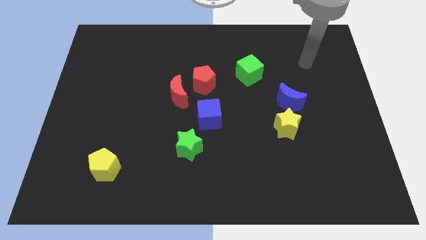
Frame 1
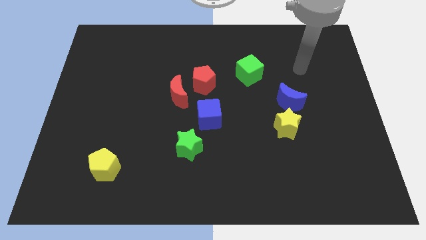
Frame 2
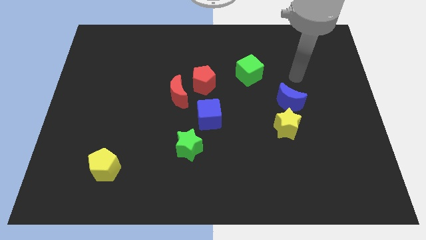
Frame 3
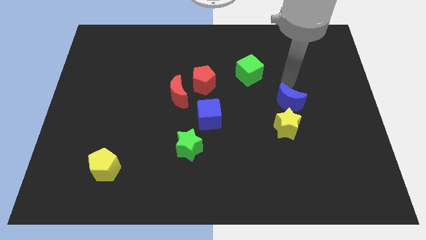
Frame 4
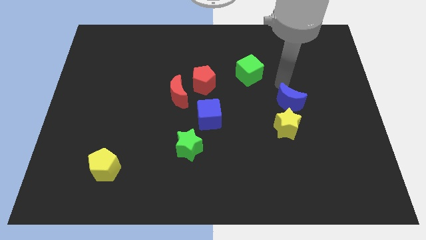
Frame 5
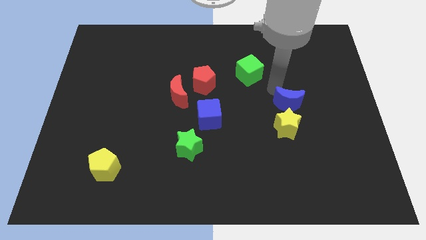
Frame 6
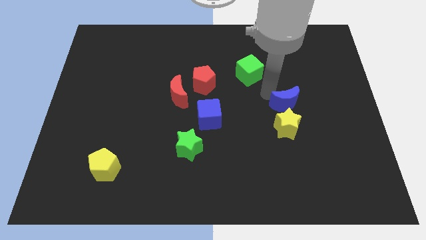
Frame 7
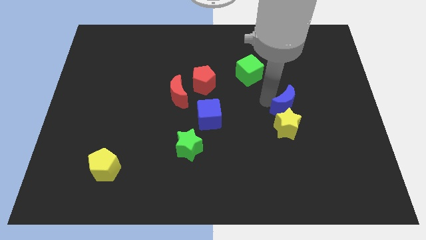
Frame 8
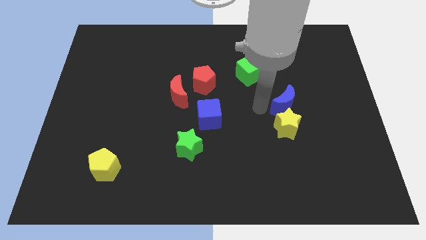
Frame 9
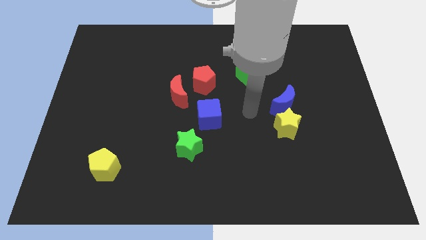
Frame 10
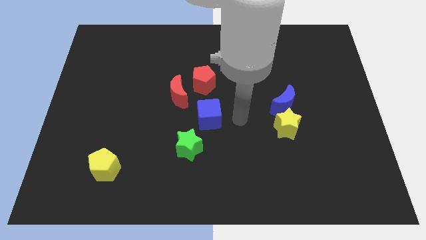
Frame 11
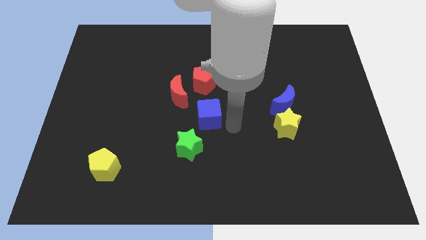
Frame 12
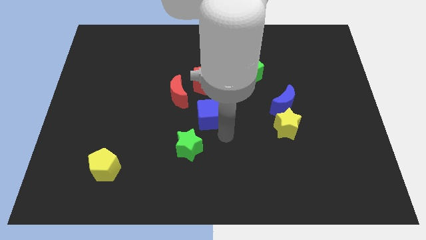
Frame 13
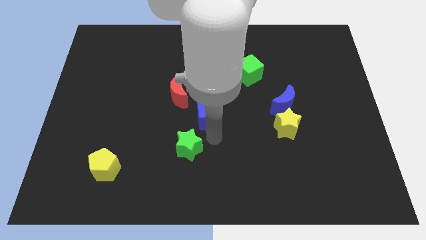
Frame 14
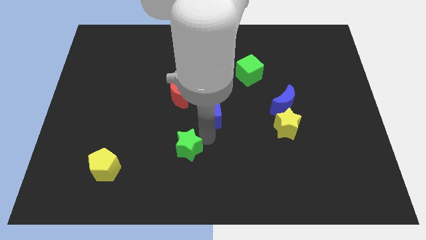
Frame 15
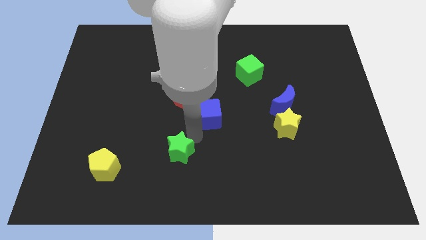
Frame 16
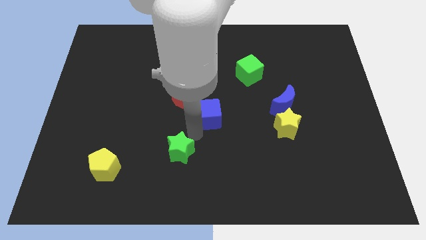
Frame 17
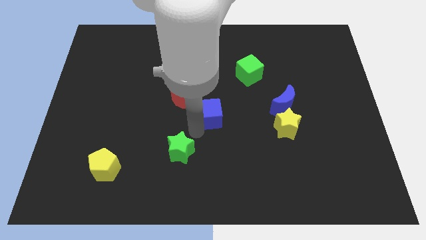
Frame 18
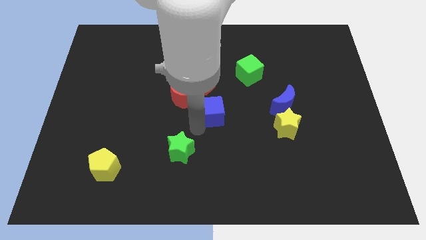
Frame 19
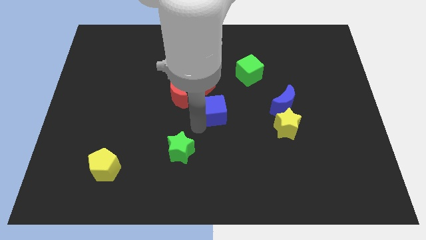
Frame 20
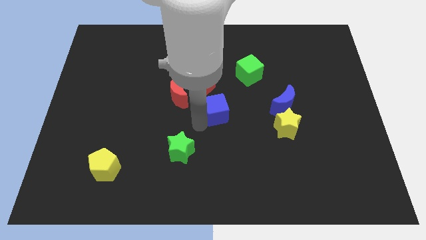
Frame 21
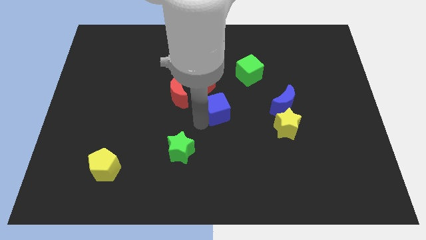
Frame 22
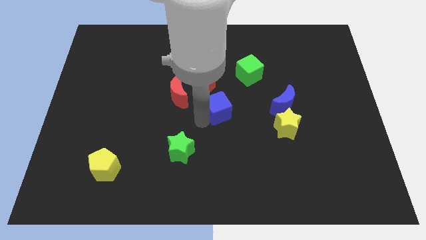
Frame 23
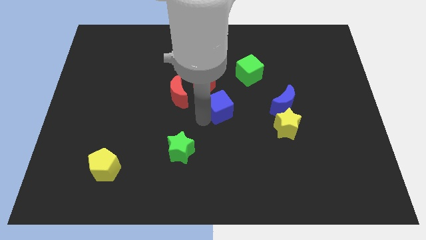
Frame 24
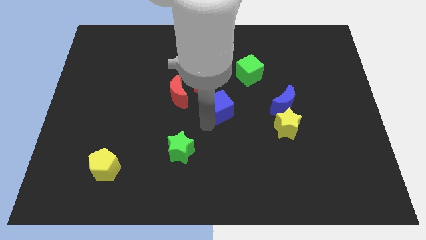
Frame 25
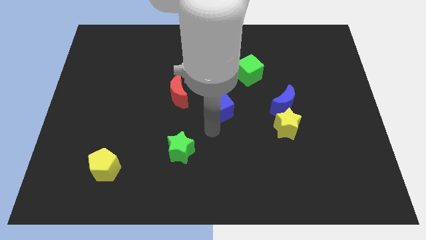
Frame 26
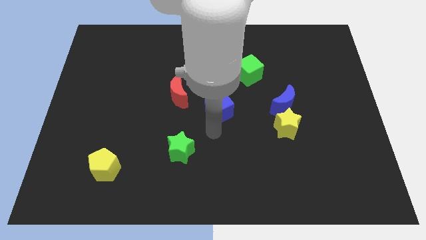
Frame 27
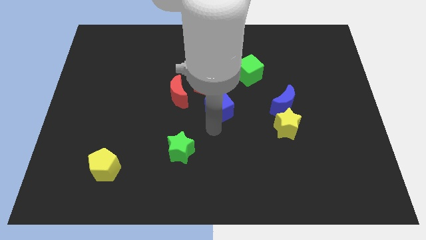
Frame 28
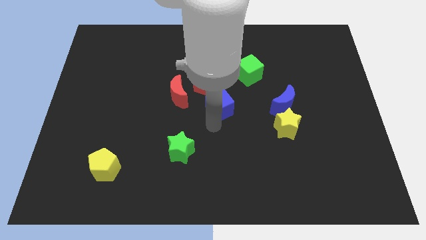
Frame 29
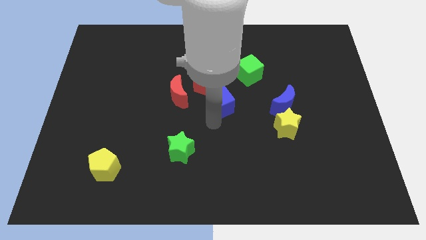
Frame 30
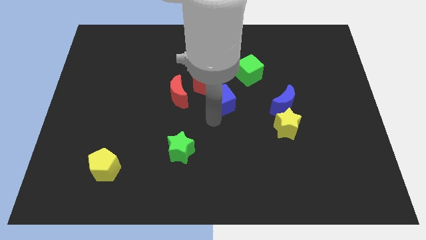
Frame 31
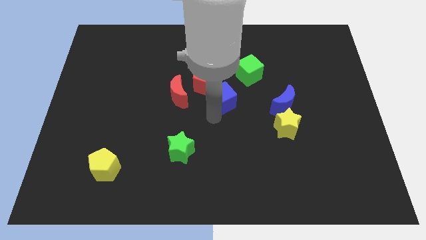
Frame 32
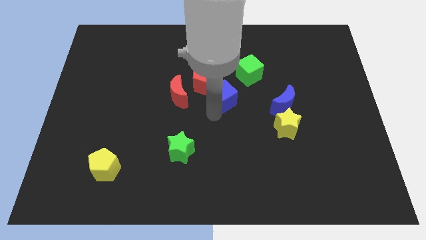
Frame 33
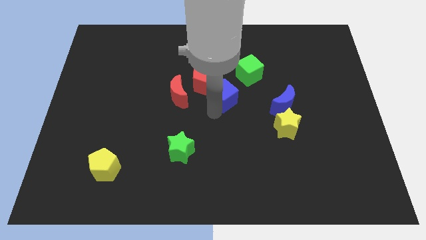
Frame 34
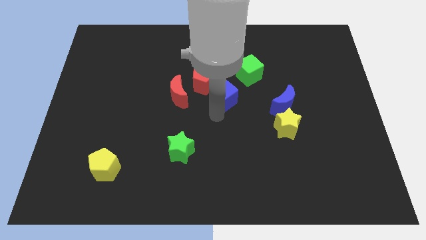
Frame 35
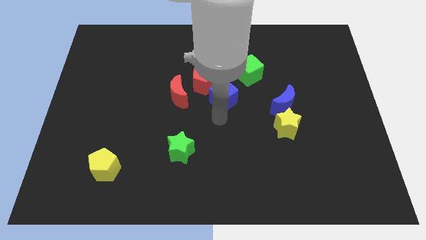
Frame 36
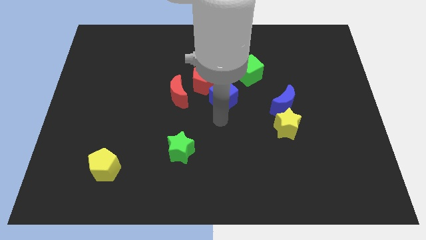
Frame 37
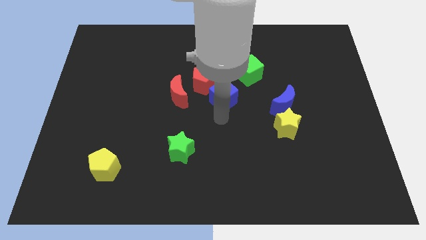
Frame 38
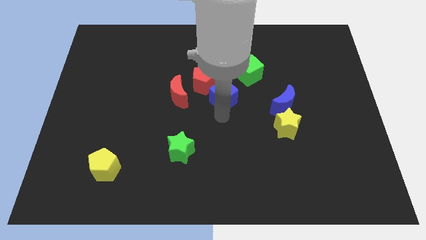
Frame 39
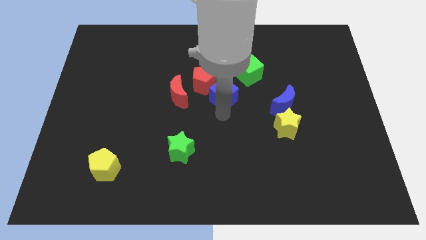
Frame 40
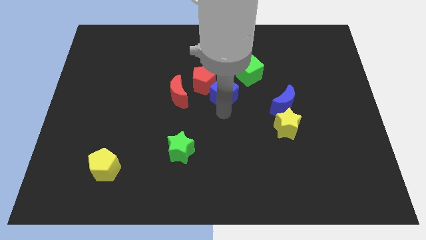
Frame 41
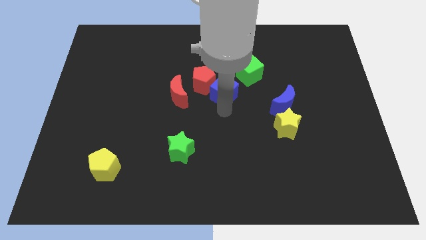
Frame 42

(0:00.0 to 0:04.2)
slide the blue cube upwards somewhat

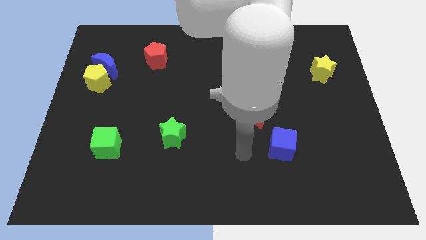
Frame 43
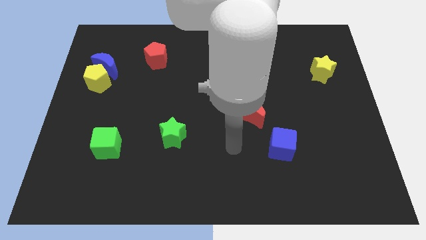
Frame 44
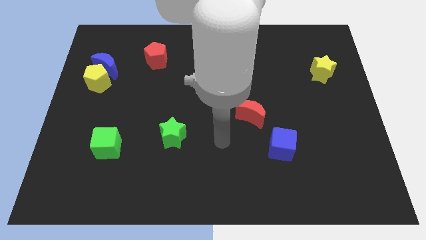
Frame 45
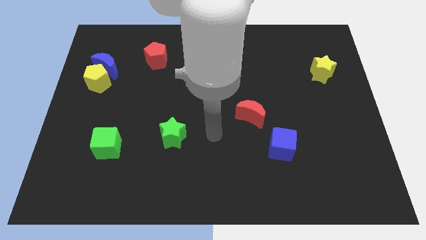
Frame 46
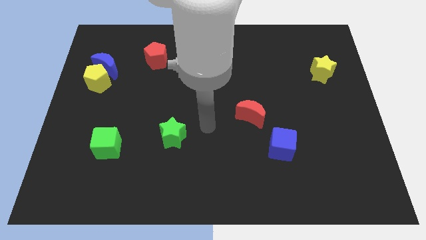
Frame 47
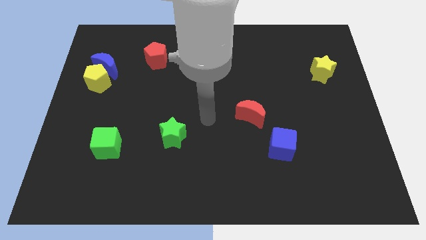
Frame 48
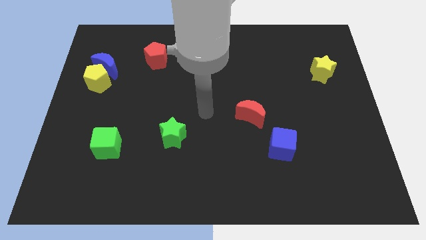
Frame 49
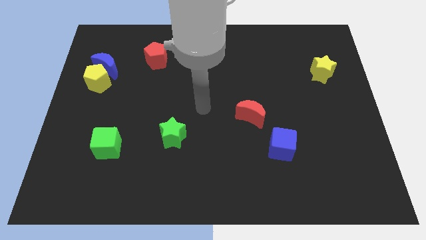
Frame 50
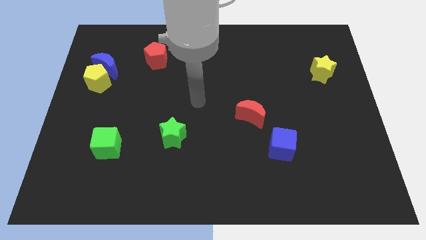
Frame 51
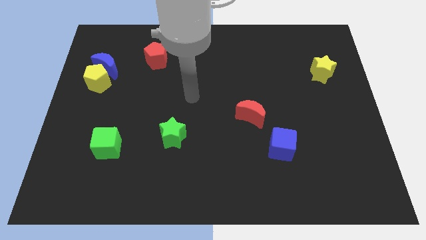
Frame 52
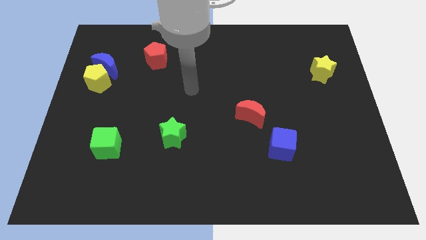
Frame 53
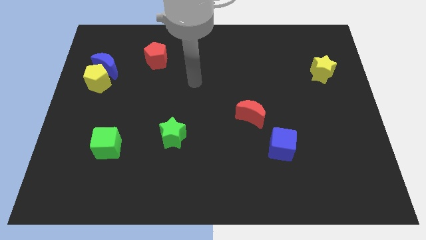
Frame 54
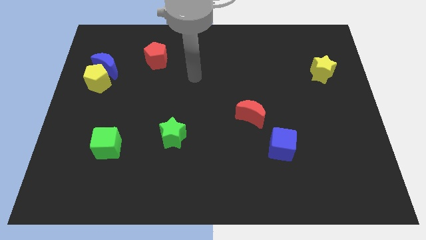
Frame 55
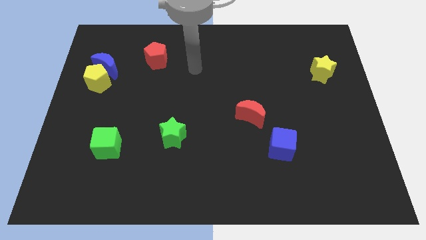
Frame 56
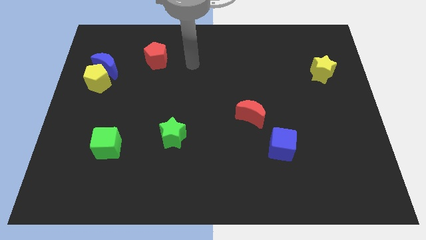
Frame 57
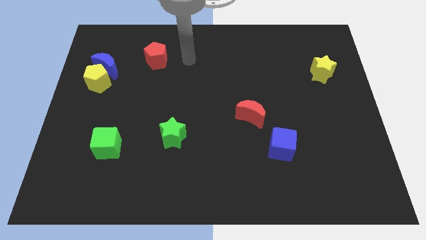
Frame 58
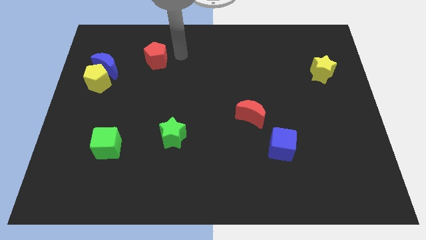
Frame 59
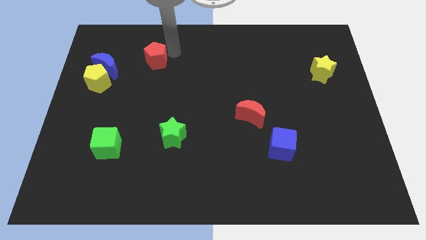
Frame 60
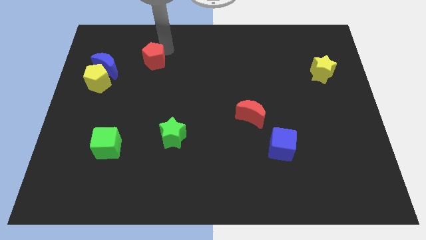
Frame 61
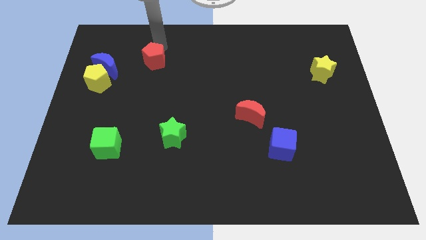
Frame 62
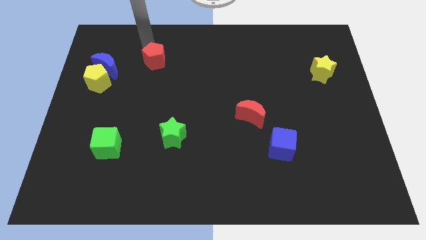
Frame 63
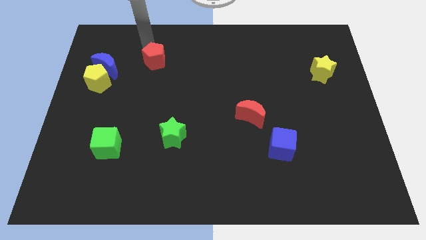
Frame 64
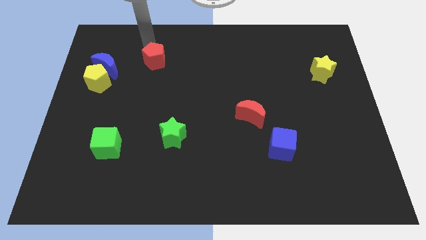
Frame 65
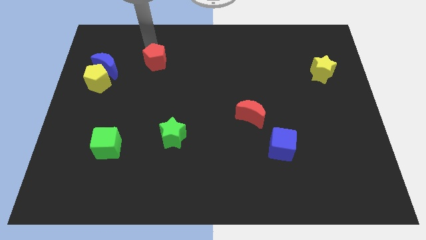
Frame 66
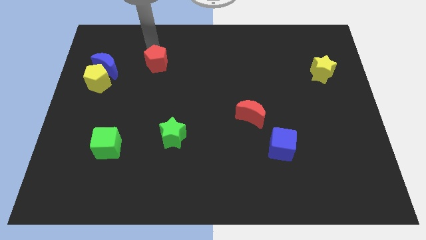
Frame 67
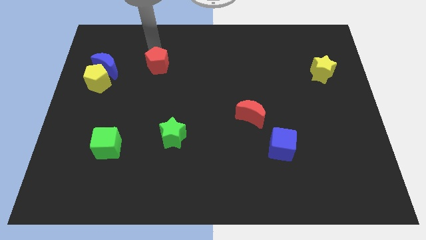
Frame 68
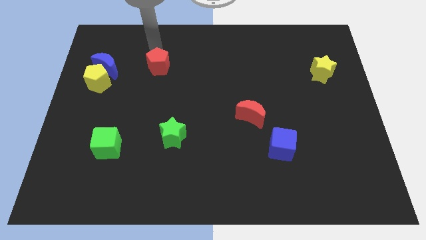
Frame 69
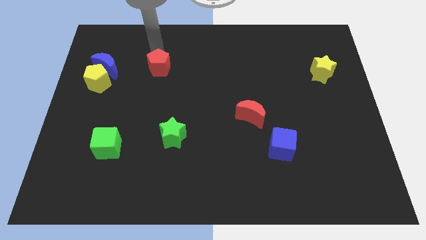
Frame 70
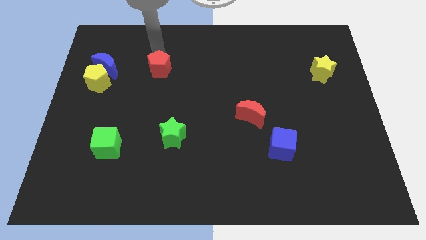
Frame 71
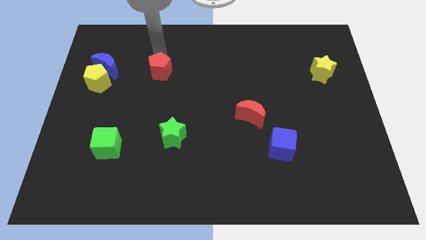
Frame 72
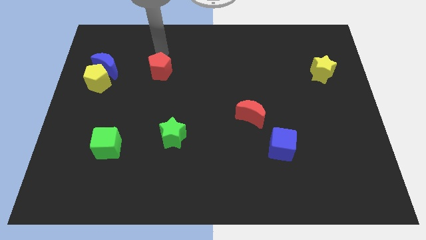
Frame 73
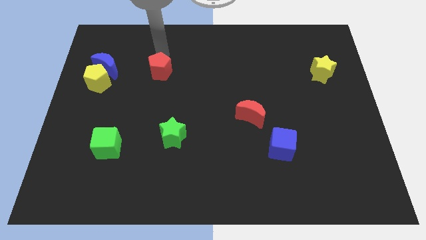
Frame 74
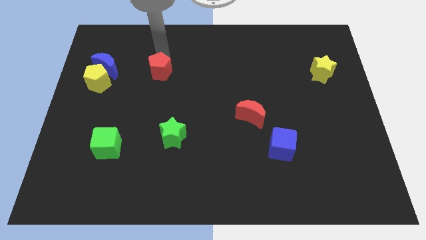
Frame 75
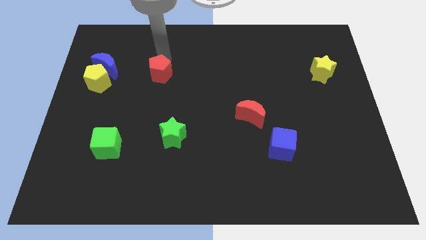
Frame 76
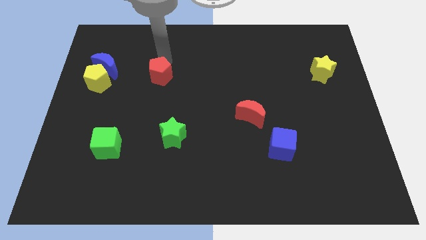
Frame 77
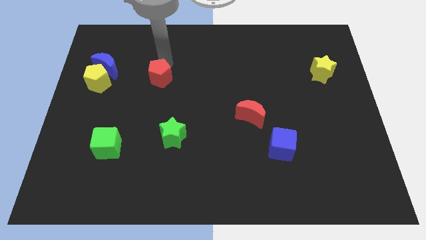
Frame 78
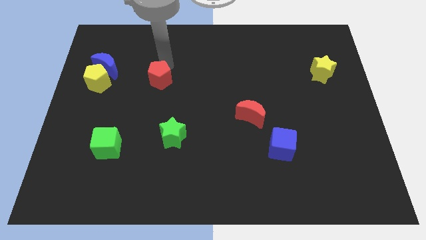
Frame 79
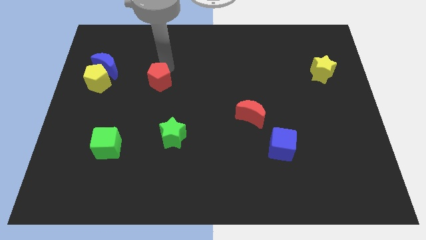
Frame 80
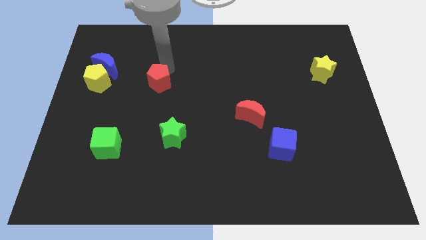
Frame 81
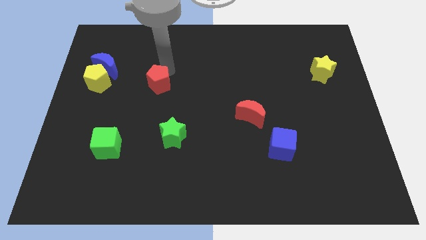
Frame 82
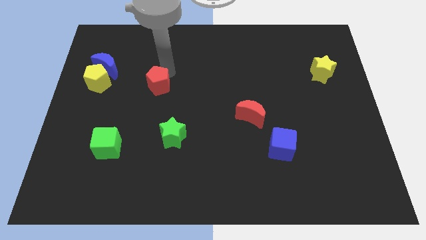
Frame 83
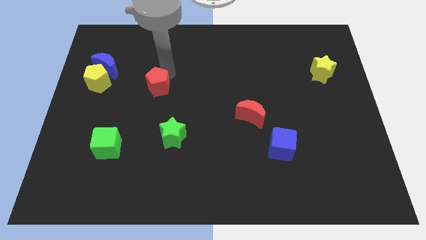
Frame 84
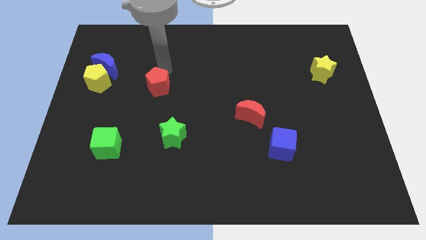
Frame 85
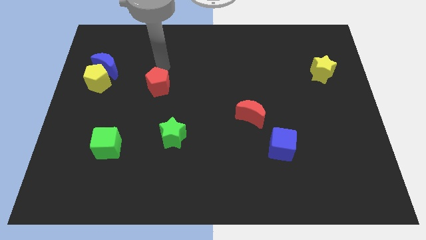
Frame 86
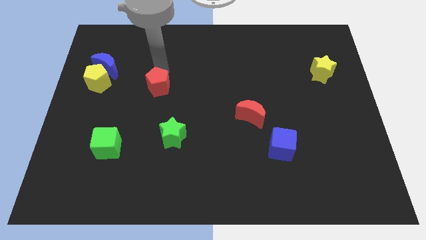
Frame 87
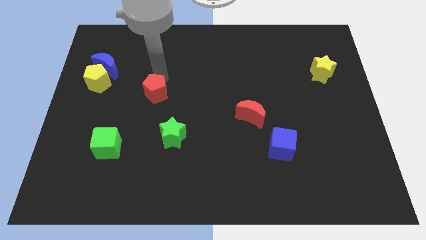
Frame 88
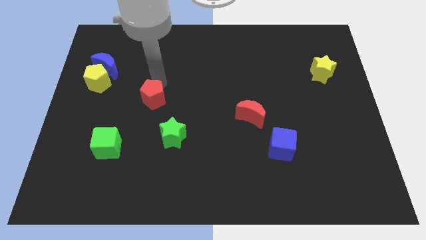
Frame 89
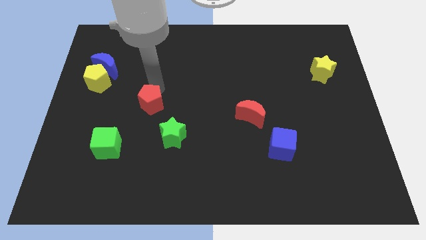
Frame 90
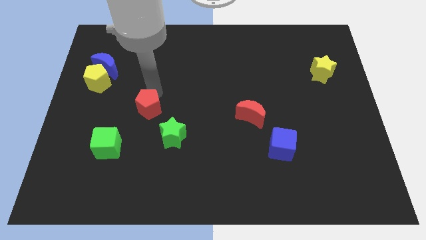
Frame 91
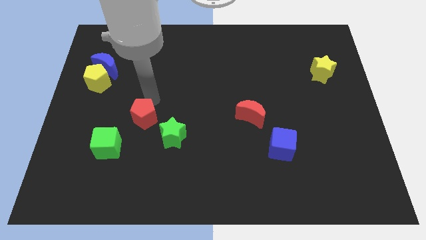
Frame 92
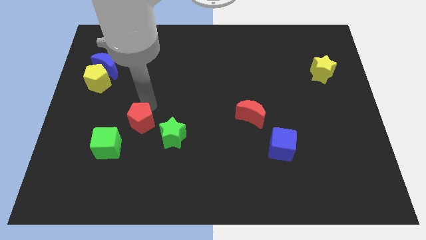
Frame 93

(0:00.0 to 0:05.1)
move the red pentagon down
